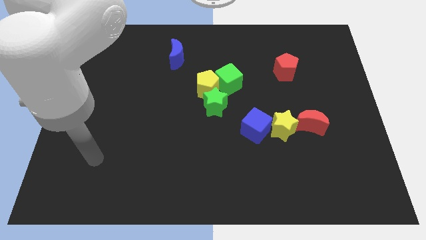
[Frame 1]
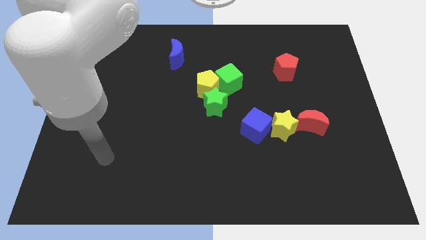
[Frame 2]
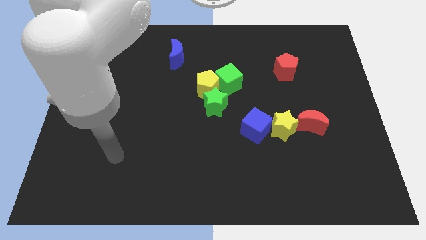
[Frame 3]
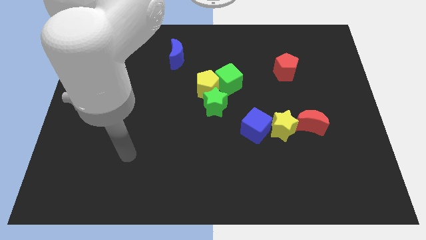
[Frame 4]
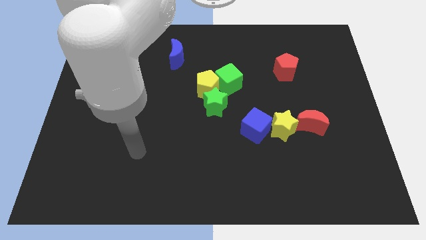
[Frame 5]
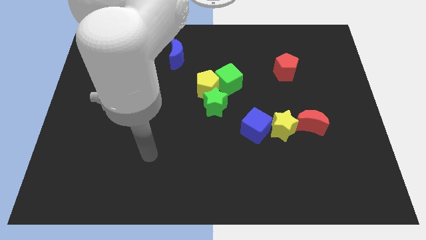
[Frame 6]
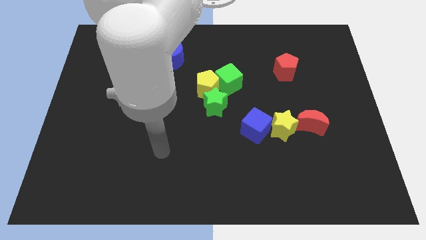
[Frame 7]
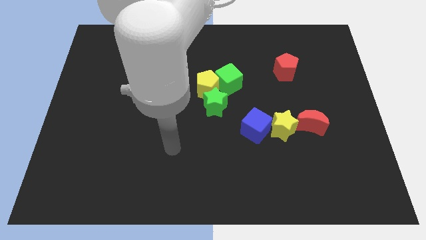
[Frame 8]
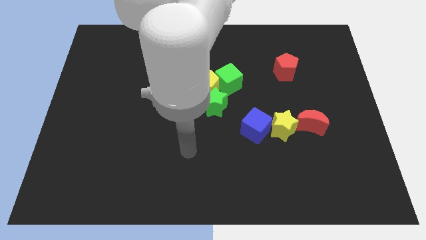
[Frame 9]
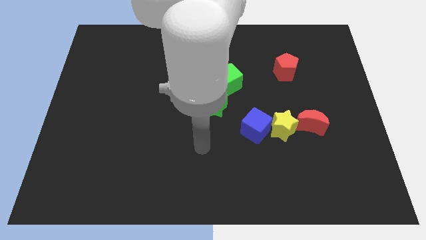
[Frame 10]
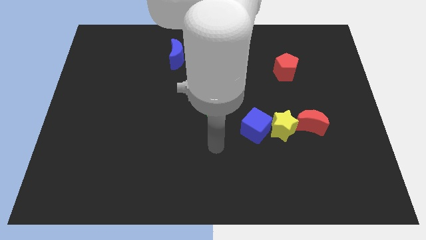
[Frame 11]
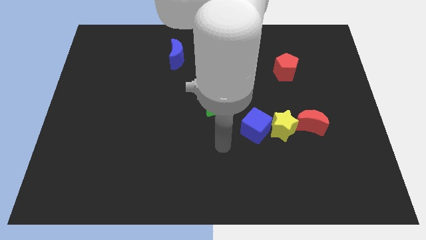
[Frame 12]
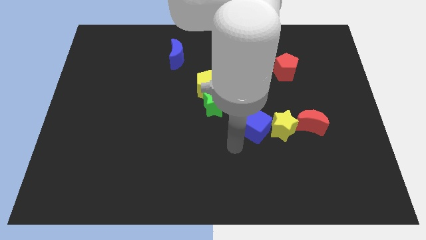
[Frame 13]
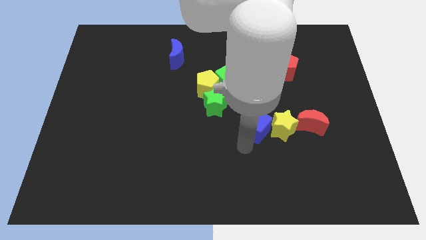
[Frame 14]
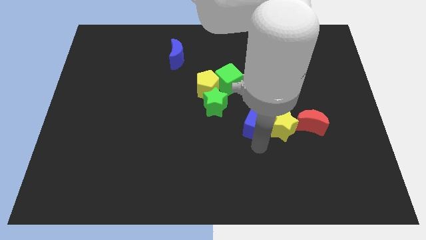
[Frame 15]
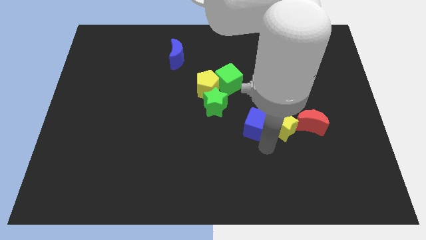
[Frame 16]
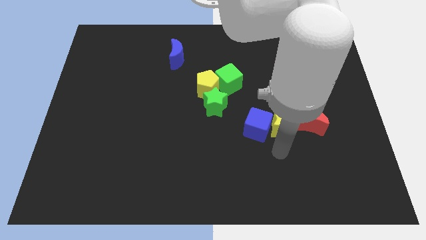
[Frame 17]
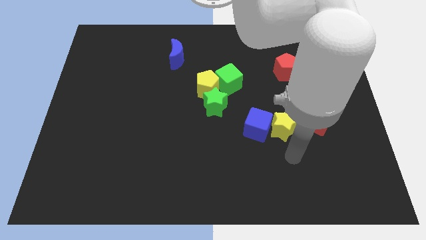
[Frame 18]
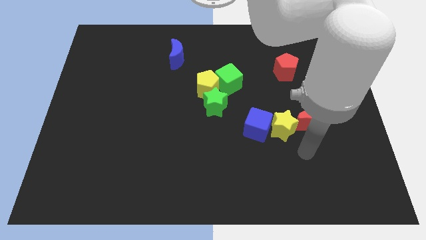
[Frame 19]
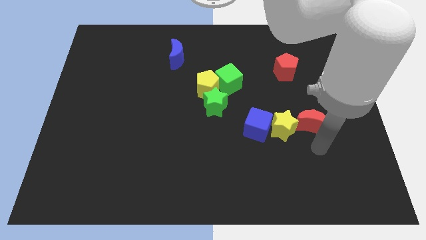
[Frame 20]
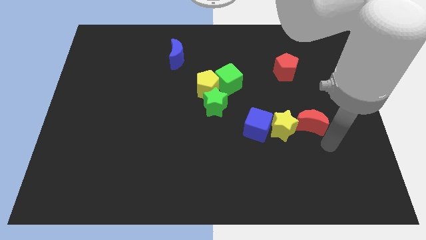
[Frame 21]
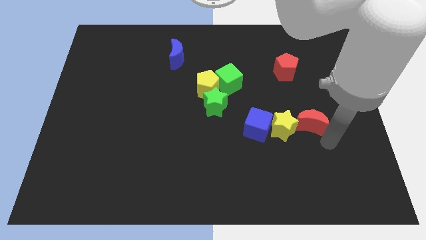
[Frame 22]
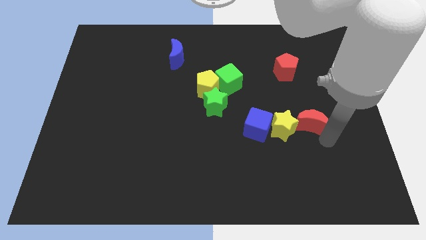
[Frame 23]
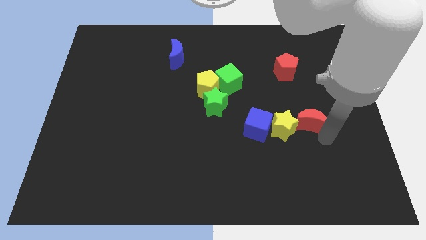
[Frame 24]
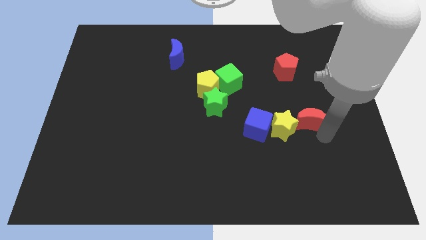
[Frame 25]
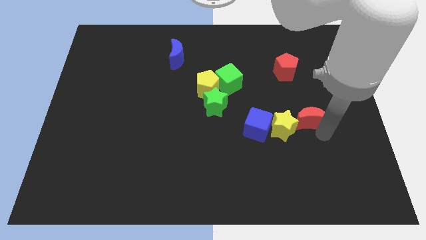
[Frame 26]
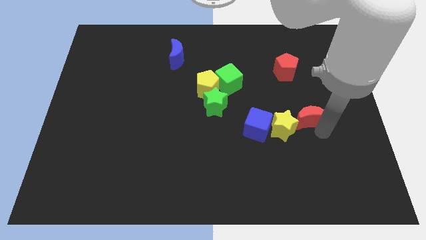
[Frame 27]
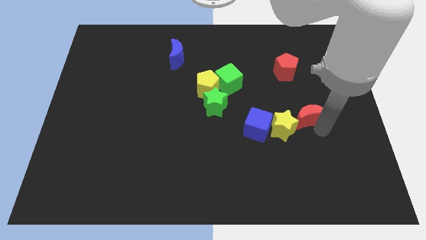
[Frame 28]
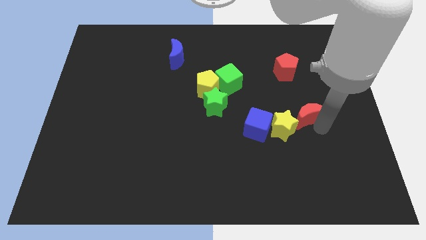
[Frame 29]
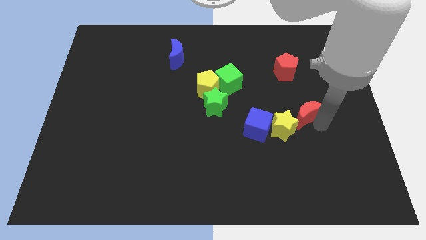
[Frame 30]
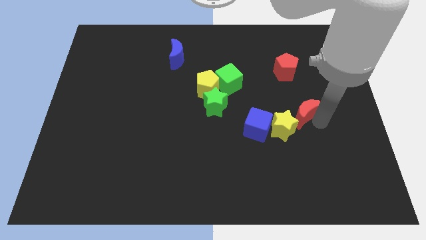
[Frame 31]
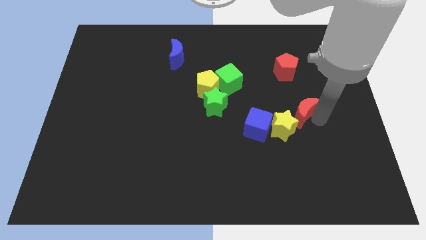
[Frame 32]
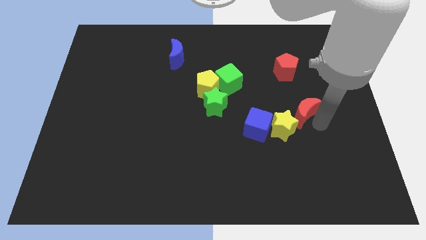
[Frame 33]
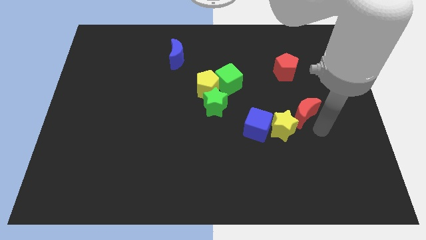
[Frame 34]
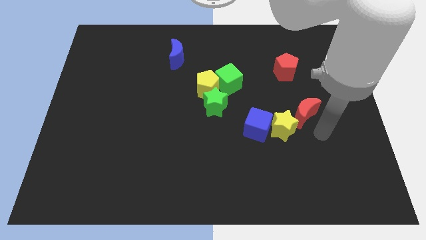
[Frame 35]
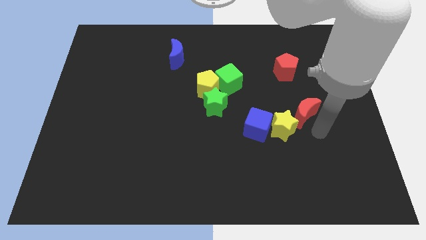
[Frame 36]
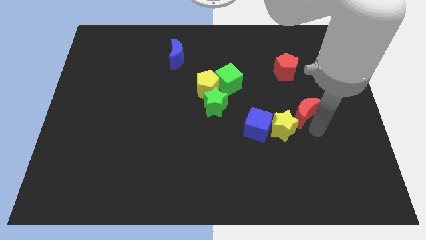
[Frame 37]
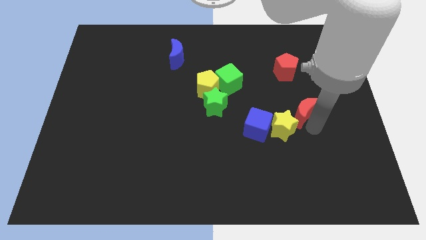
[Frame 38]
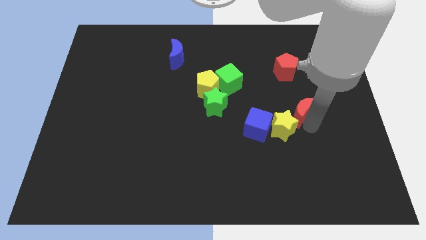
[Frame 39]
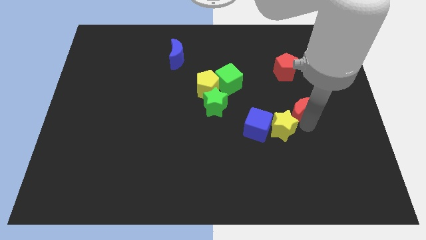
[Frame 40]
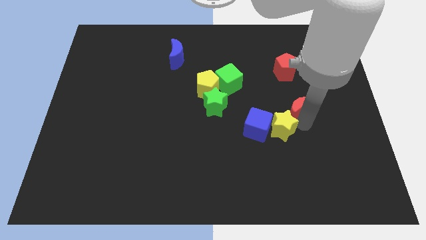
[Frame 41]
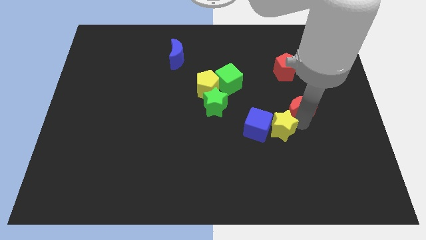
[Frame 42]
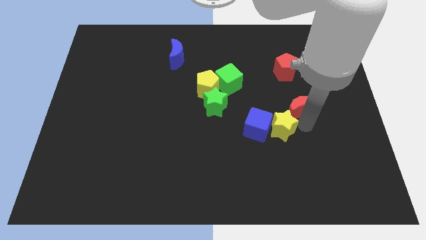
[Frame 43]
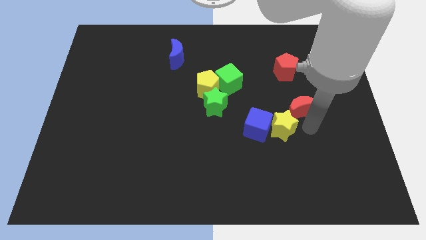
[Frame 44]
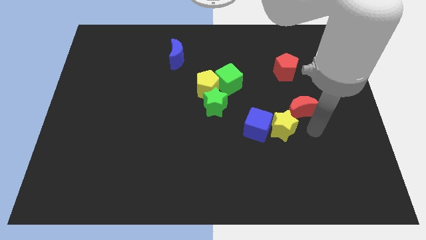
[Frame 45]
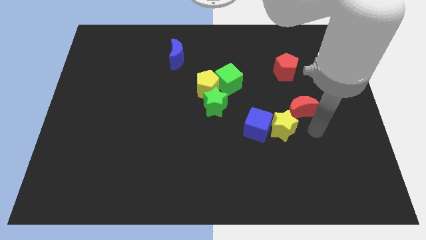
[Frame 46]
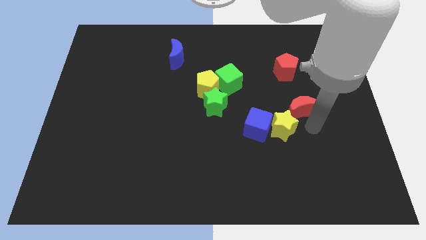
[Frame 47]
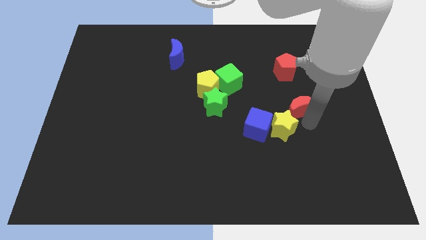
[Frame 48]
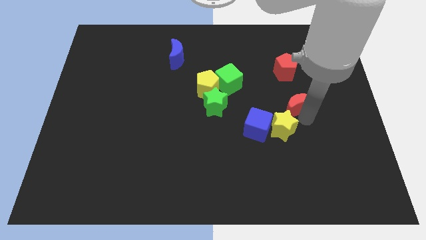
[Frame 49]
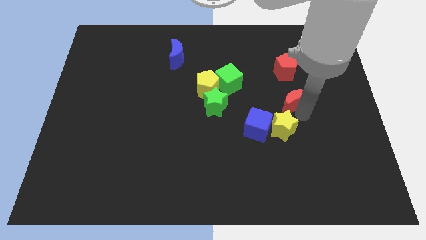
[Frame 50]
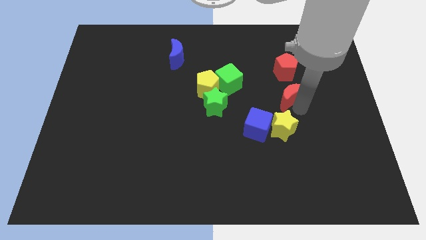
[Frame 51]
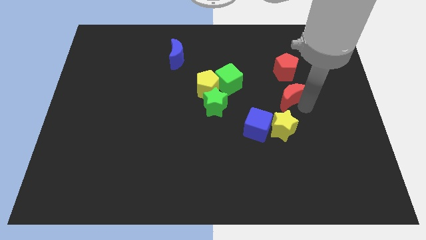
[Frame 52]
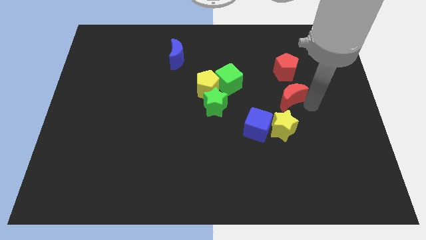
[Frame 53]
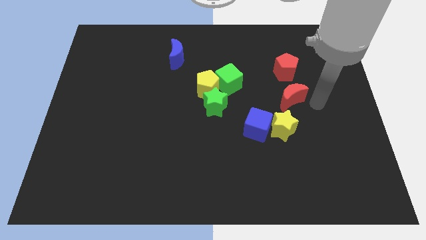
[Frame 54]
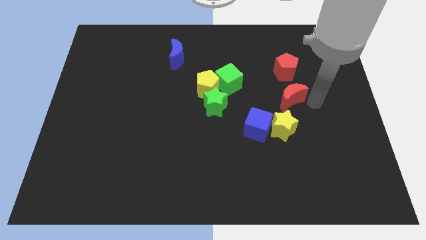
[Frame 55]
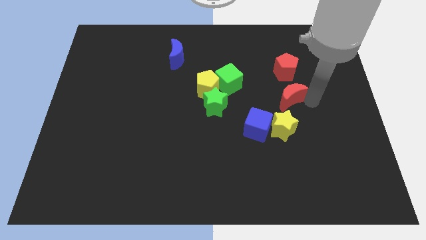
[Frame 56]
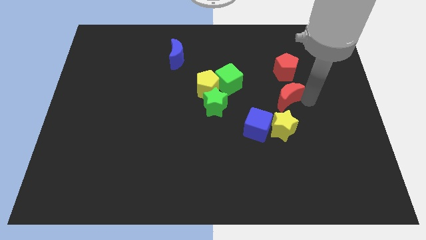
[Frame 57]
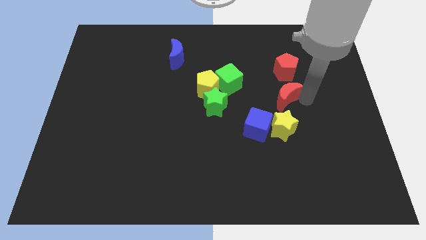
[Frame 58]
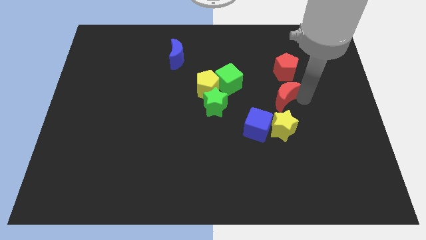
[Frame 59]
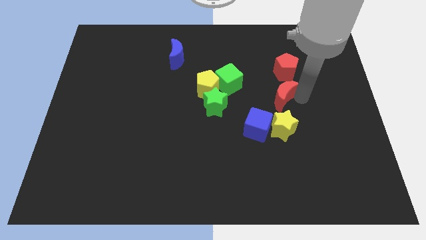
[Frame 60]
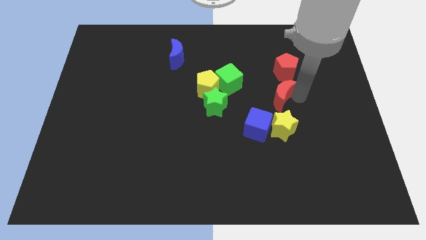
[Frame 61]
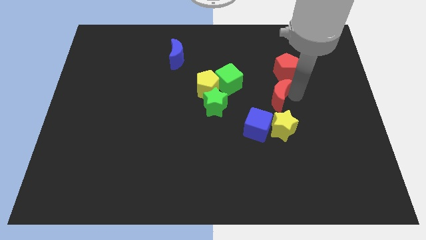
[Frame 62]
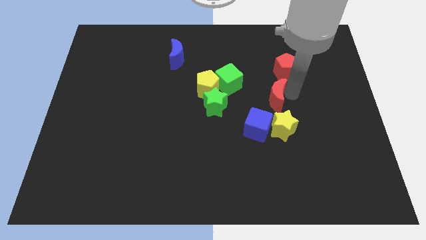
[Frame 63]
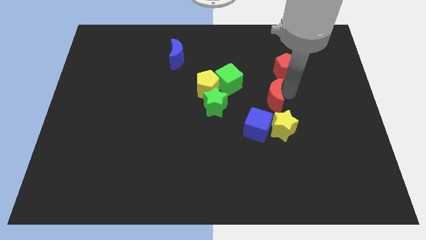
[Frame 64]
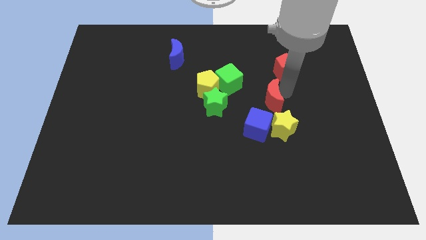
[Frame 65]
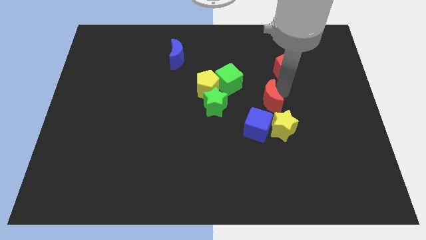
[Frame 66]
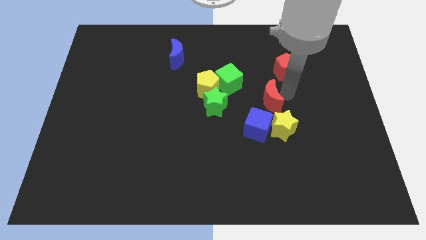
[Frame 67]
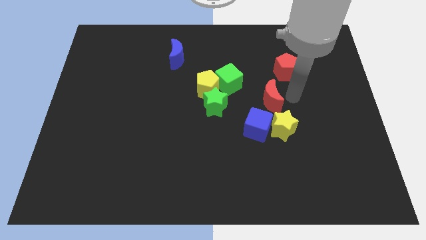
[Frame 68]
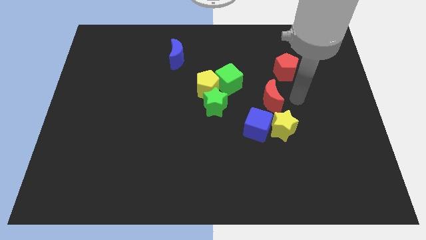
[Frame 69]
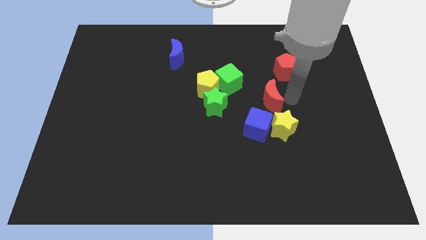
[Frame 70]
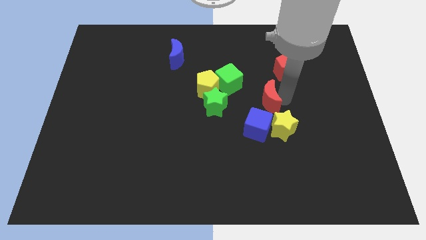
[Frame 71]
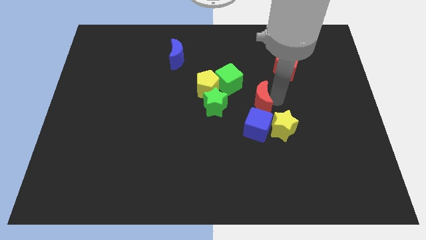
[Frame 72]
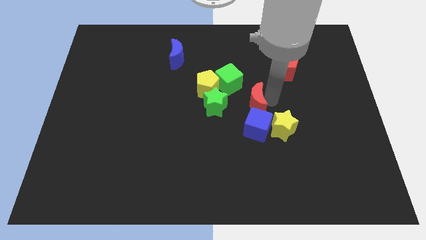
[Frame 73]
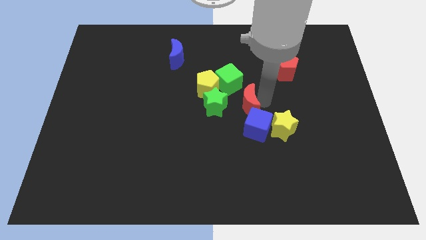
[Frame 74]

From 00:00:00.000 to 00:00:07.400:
move the red moon diagonally down and to the right of the yellow pentagon

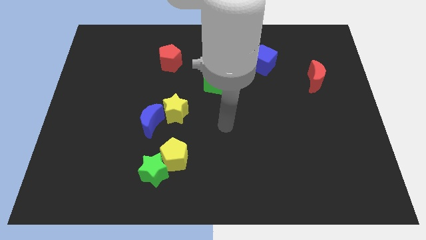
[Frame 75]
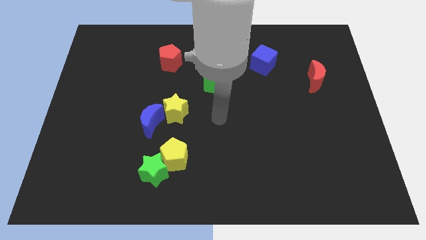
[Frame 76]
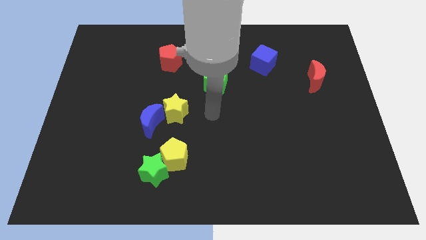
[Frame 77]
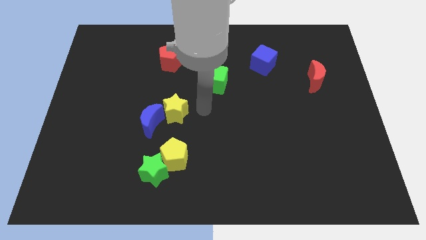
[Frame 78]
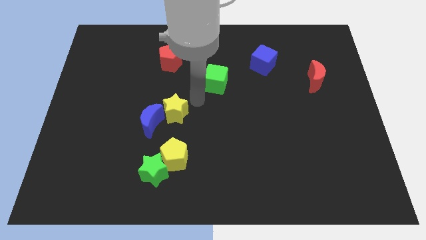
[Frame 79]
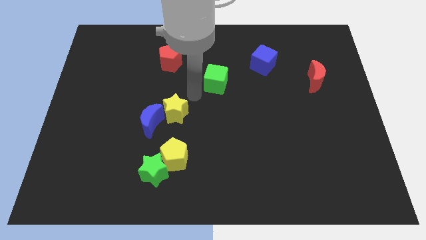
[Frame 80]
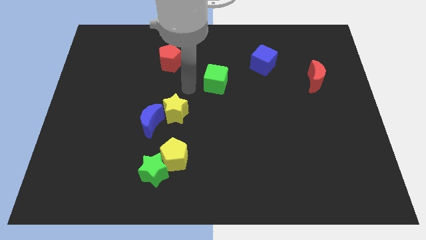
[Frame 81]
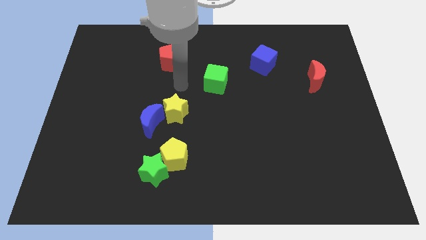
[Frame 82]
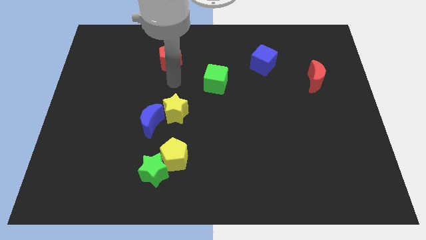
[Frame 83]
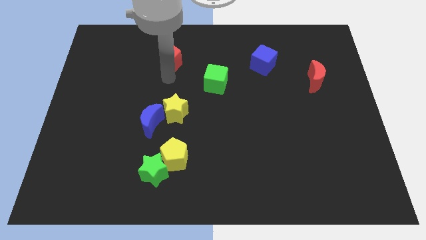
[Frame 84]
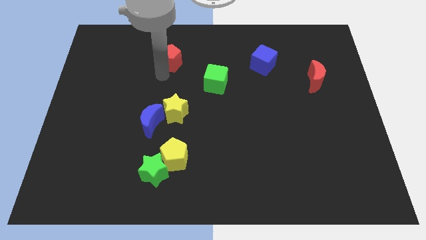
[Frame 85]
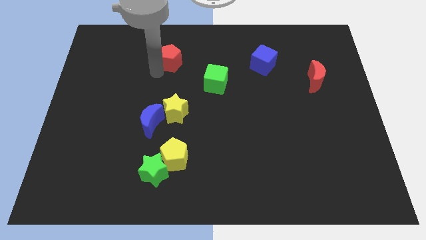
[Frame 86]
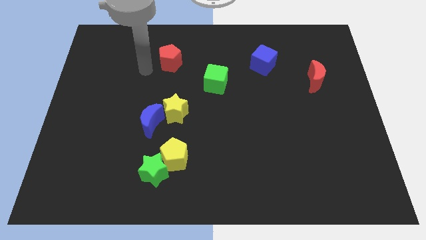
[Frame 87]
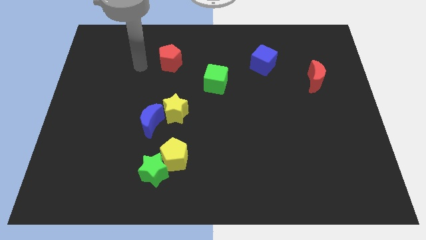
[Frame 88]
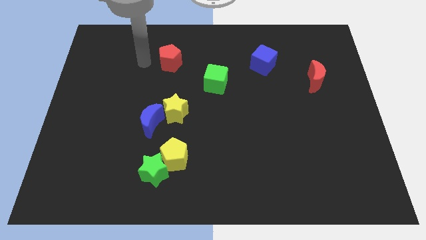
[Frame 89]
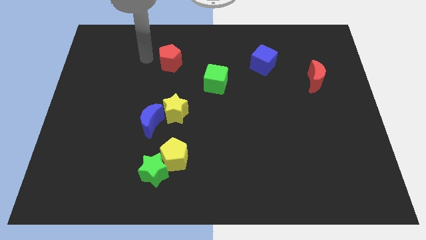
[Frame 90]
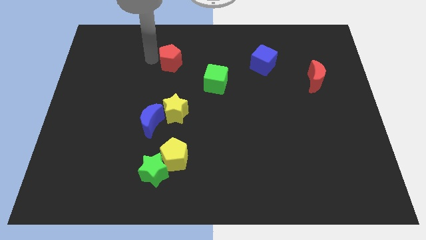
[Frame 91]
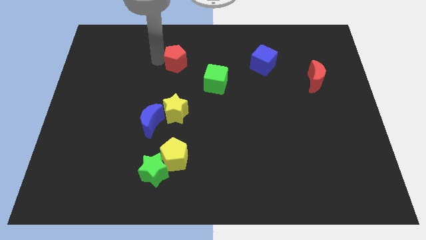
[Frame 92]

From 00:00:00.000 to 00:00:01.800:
move the red pentagon to the top left of the green cube
